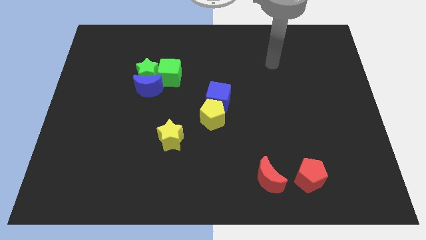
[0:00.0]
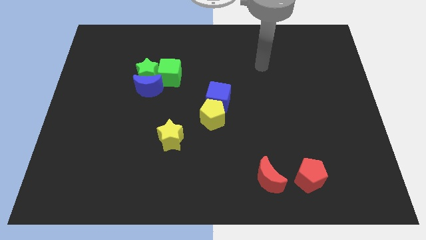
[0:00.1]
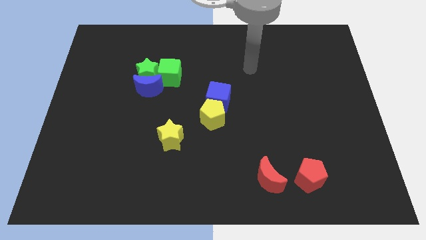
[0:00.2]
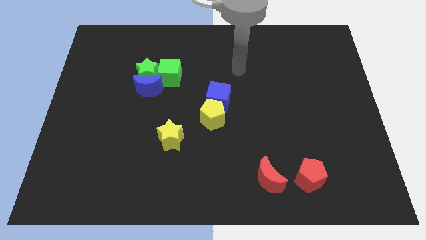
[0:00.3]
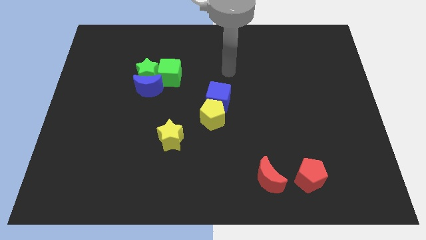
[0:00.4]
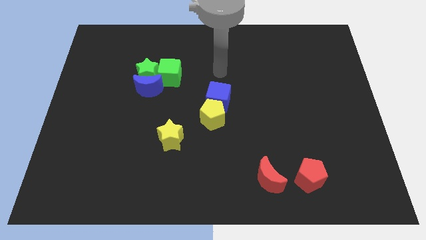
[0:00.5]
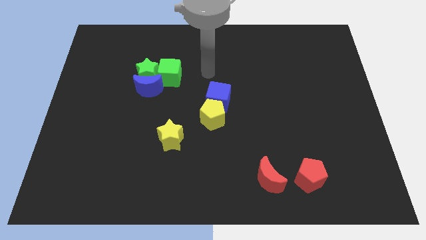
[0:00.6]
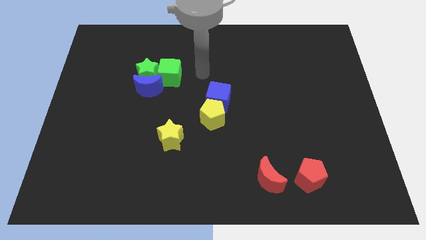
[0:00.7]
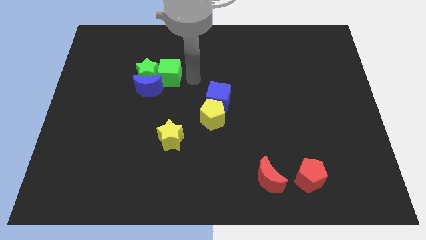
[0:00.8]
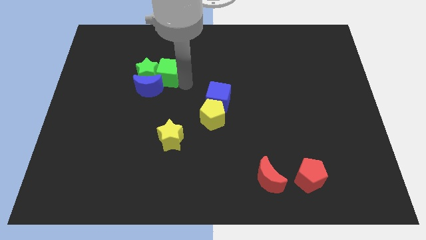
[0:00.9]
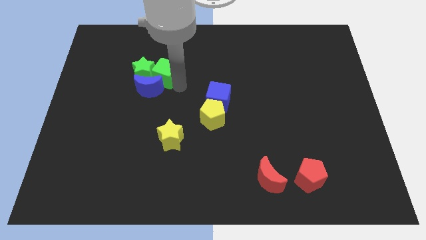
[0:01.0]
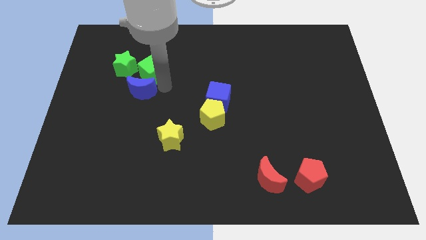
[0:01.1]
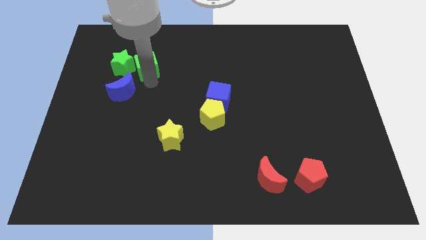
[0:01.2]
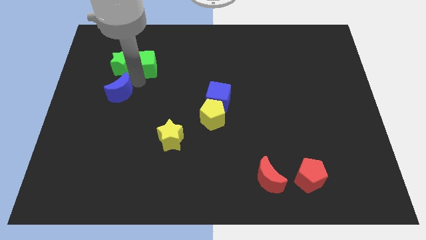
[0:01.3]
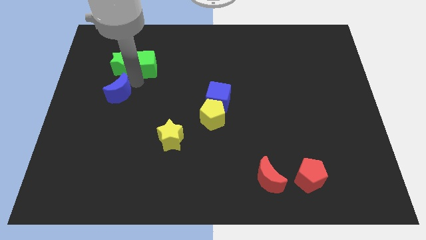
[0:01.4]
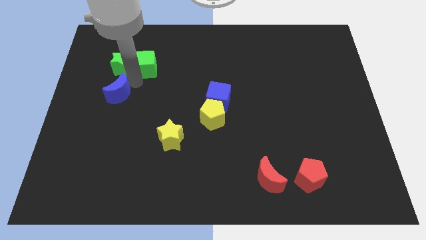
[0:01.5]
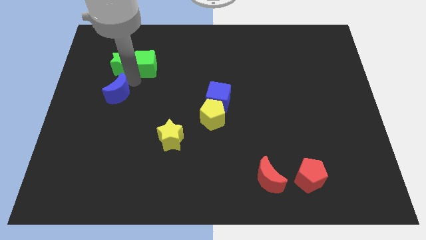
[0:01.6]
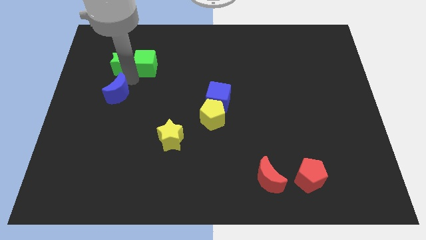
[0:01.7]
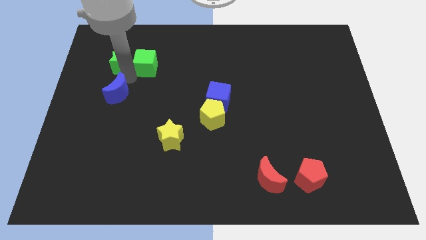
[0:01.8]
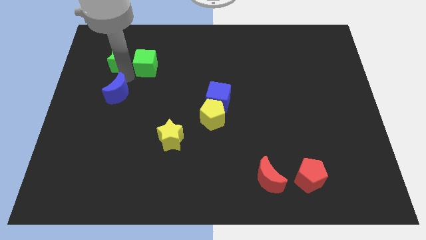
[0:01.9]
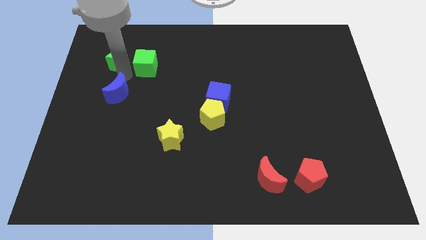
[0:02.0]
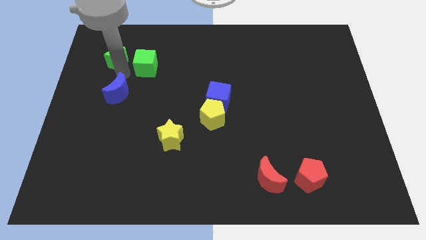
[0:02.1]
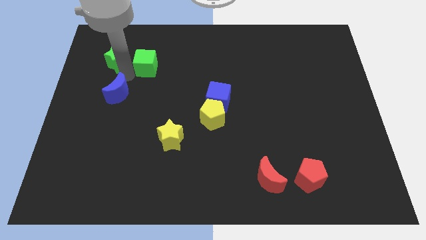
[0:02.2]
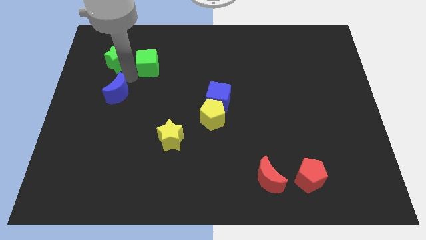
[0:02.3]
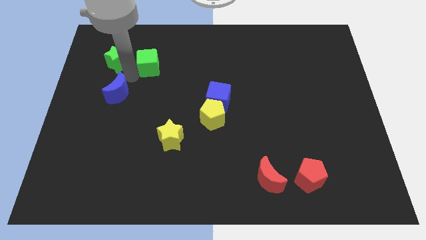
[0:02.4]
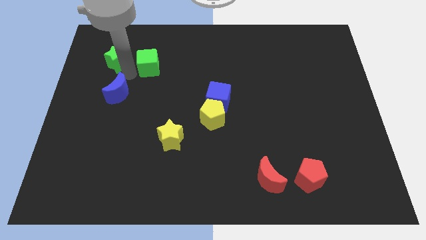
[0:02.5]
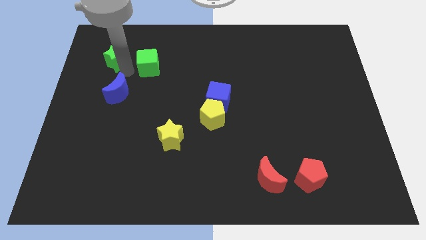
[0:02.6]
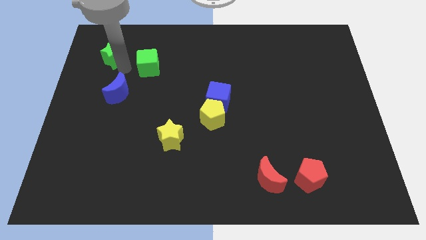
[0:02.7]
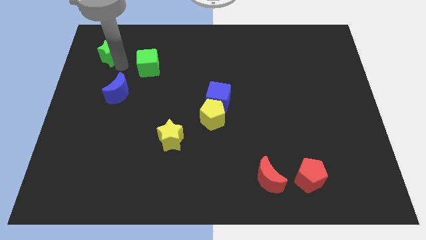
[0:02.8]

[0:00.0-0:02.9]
move the green star away from the blue moon and green cube

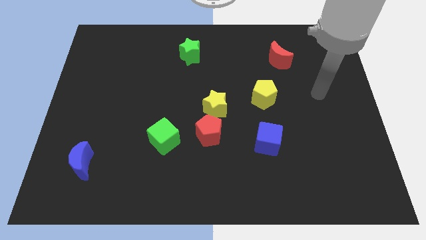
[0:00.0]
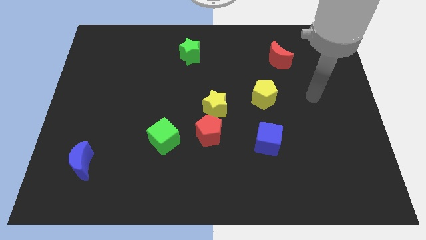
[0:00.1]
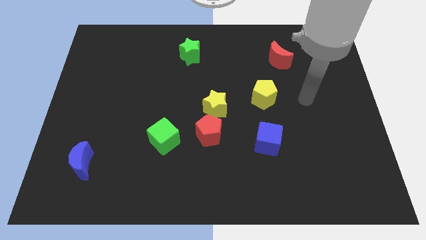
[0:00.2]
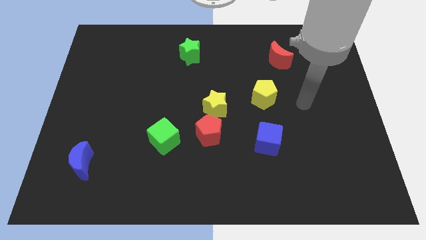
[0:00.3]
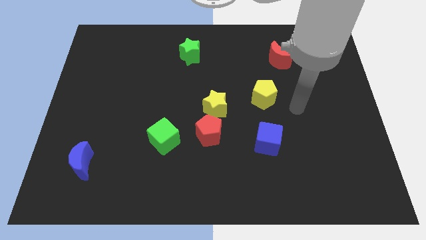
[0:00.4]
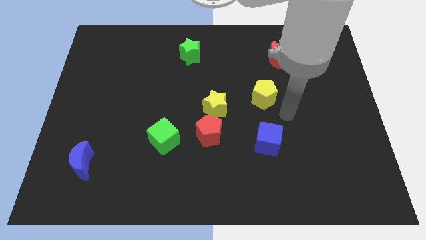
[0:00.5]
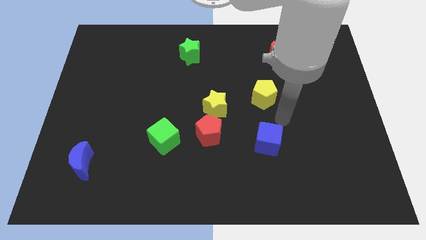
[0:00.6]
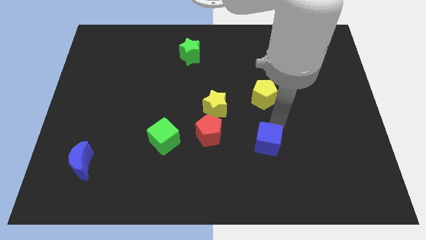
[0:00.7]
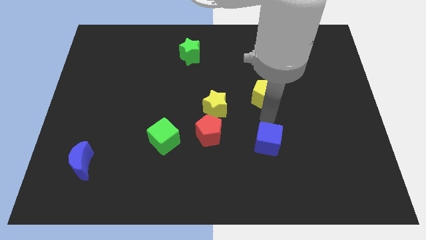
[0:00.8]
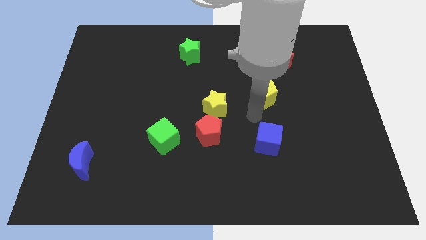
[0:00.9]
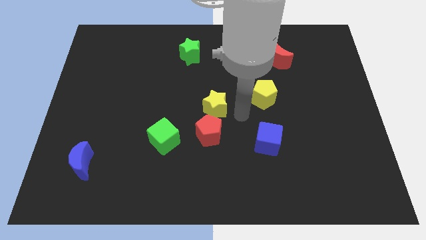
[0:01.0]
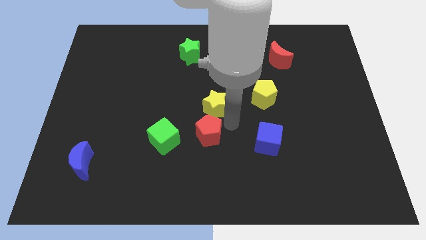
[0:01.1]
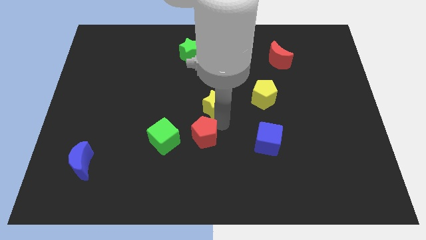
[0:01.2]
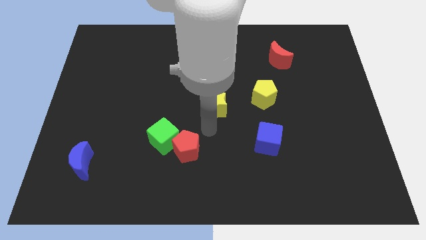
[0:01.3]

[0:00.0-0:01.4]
pull the yellow star apart from the red pentagon

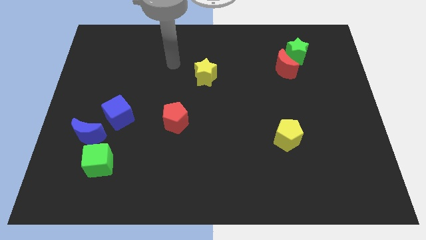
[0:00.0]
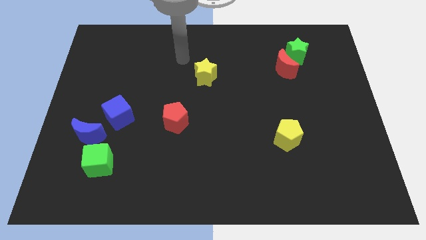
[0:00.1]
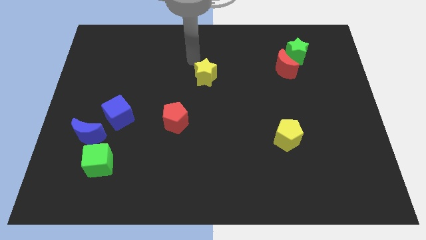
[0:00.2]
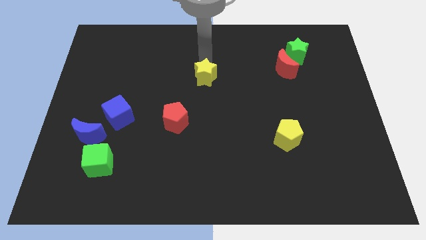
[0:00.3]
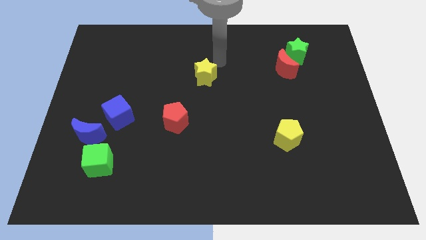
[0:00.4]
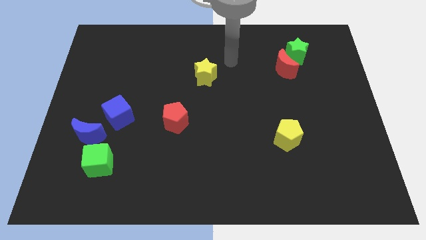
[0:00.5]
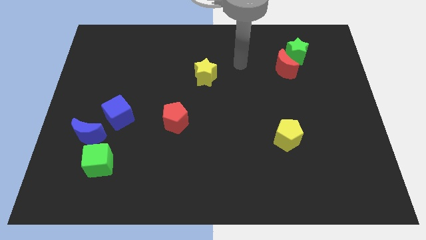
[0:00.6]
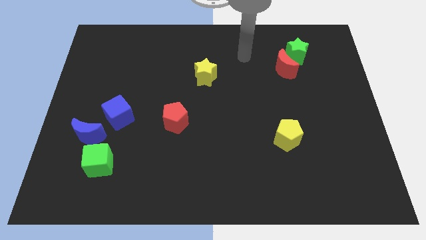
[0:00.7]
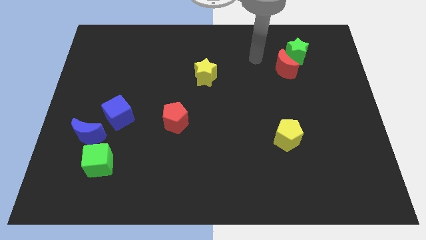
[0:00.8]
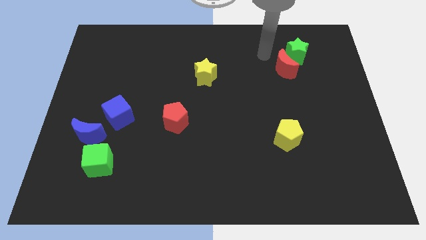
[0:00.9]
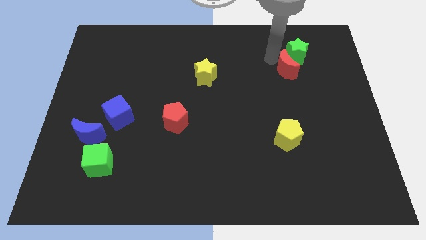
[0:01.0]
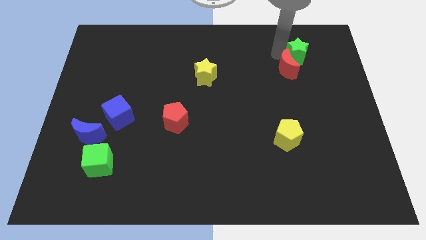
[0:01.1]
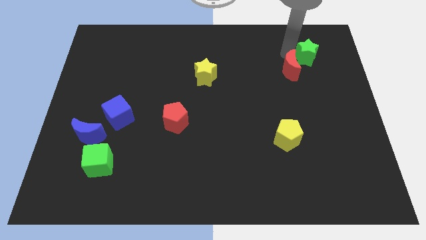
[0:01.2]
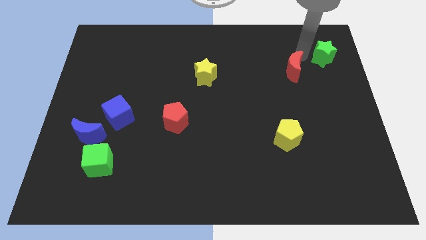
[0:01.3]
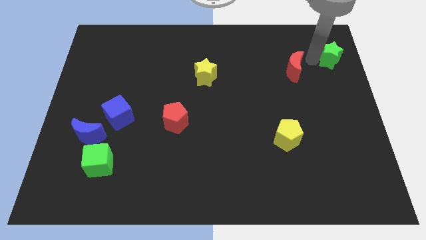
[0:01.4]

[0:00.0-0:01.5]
pull the red moon apart from the green star

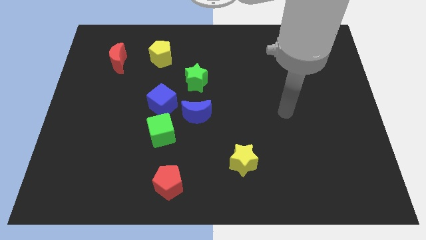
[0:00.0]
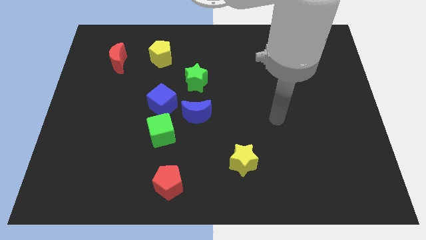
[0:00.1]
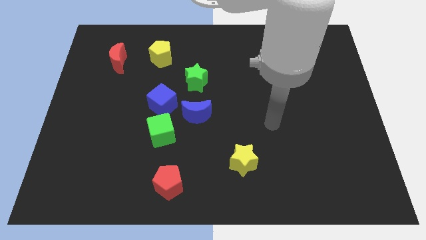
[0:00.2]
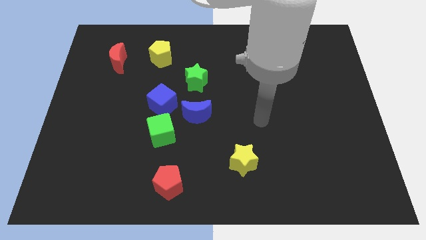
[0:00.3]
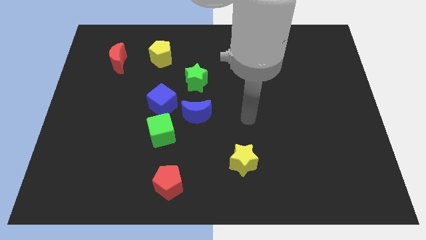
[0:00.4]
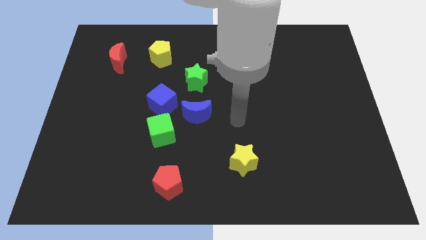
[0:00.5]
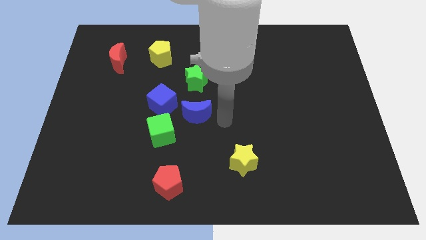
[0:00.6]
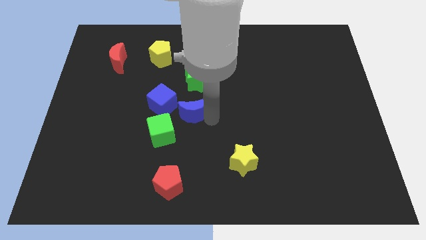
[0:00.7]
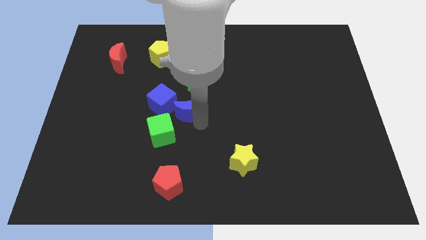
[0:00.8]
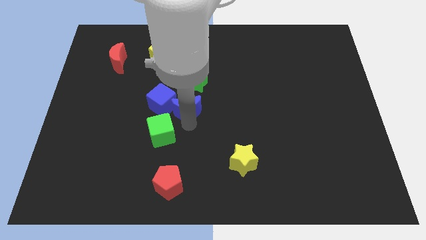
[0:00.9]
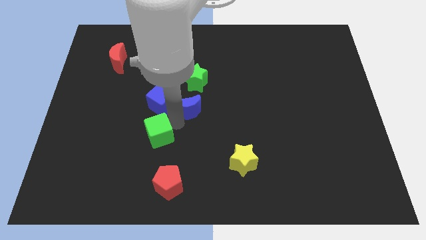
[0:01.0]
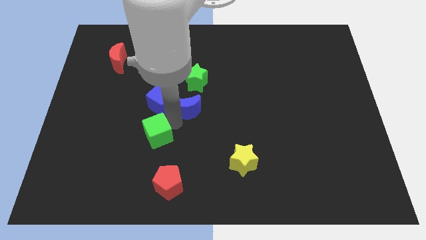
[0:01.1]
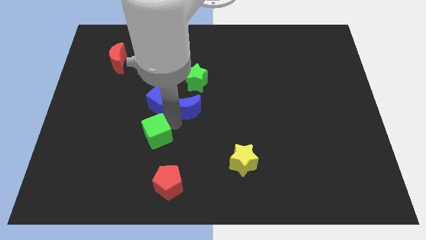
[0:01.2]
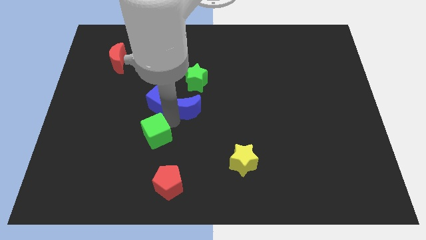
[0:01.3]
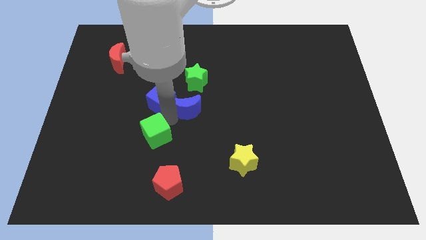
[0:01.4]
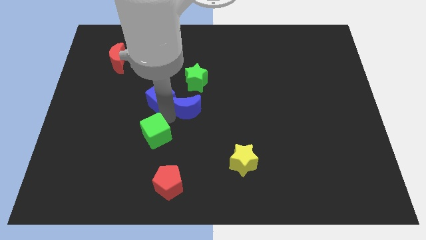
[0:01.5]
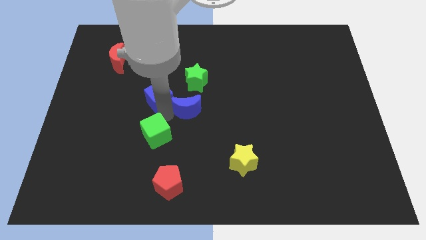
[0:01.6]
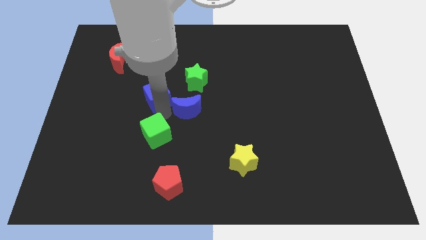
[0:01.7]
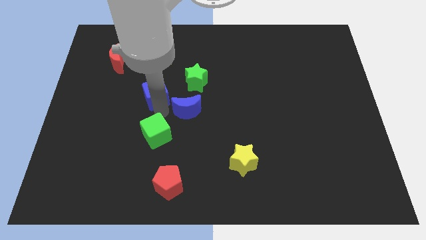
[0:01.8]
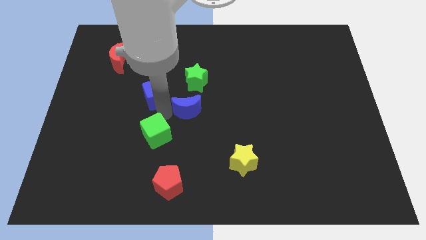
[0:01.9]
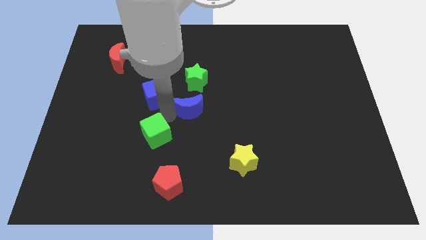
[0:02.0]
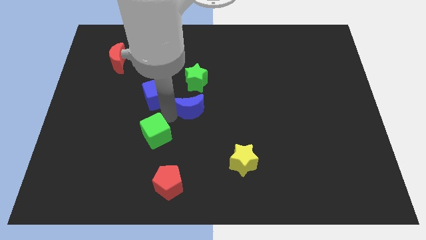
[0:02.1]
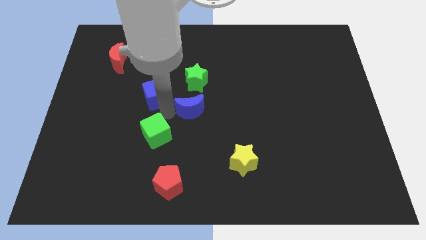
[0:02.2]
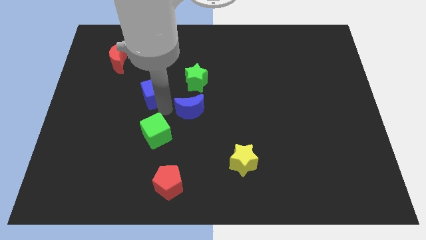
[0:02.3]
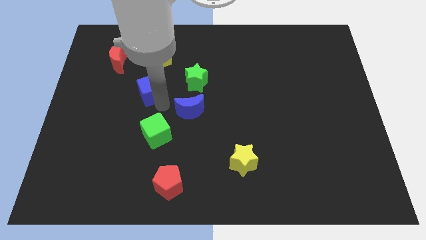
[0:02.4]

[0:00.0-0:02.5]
pull the blue cube apart from the green cube and blue moon

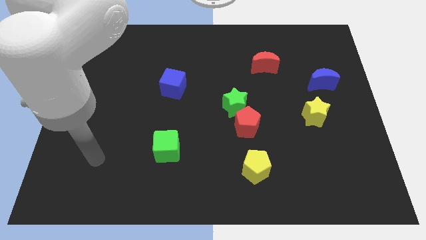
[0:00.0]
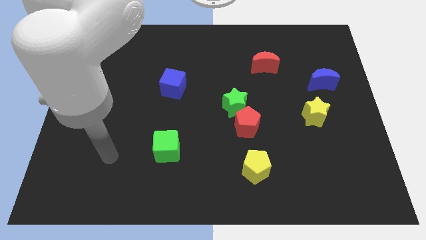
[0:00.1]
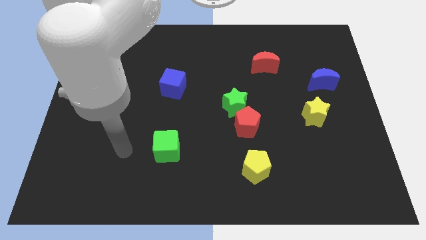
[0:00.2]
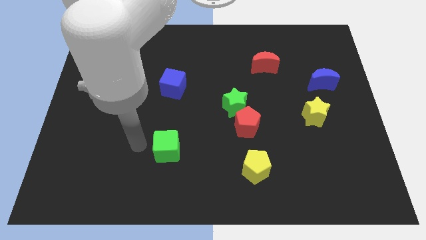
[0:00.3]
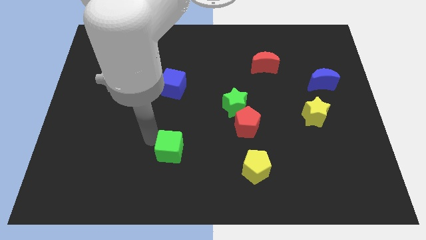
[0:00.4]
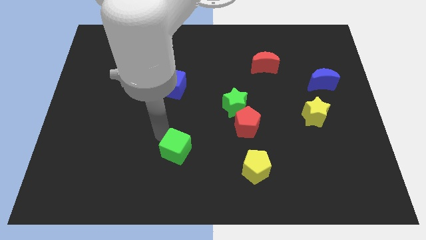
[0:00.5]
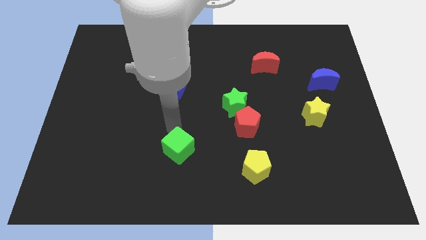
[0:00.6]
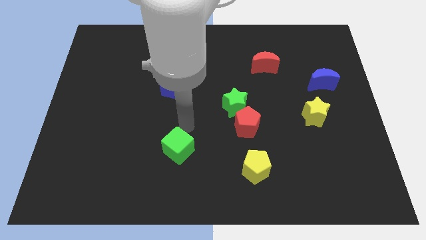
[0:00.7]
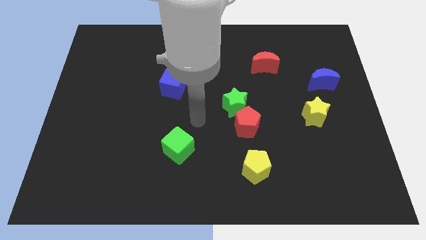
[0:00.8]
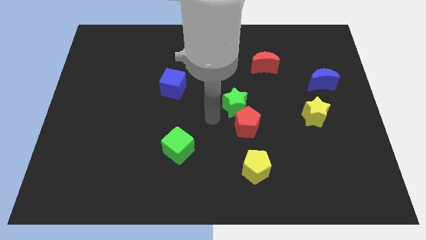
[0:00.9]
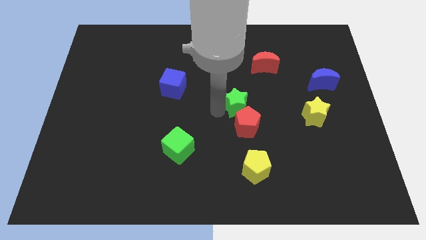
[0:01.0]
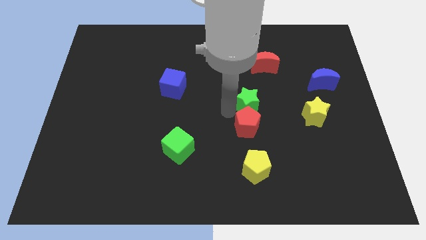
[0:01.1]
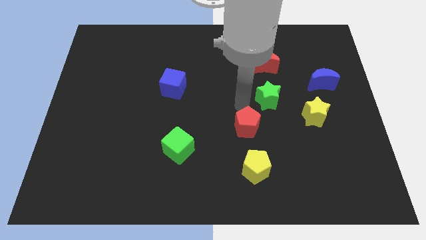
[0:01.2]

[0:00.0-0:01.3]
move the red pentagon away from the green star
